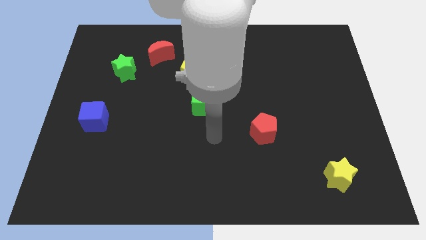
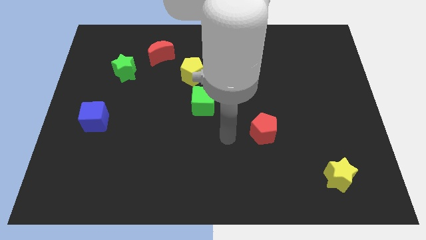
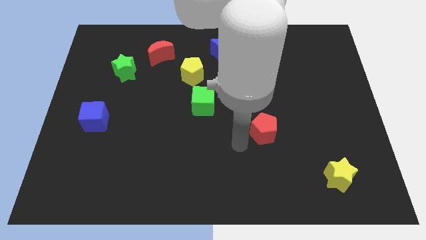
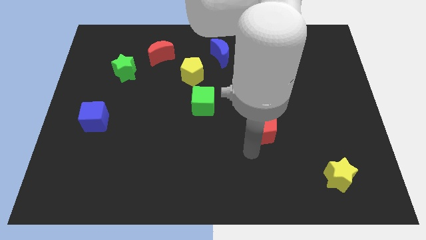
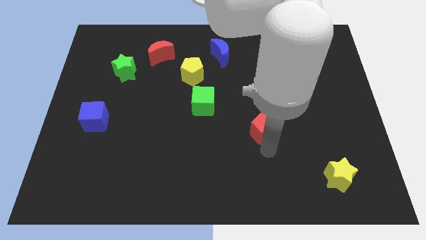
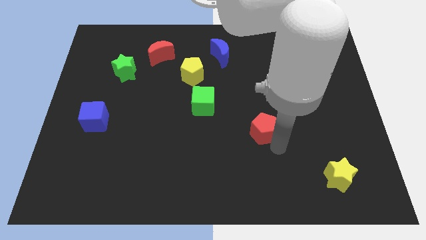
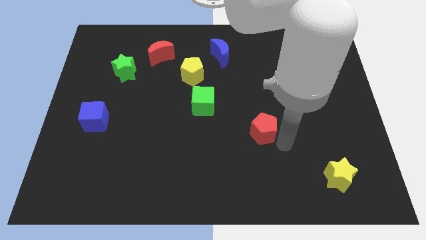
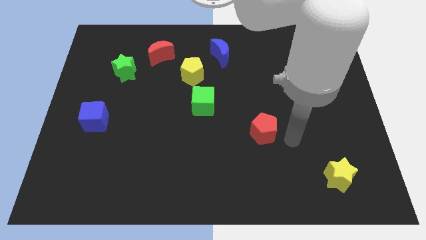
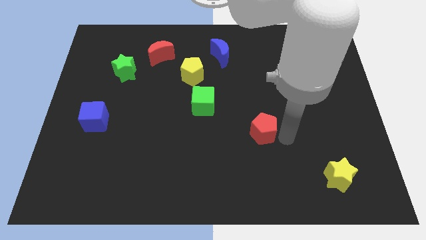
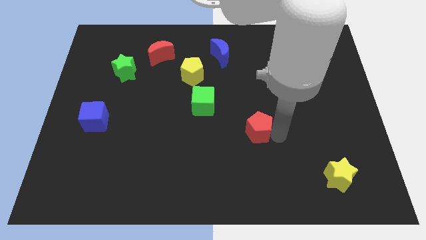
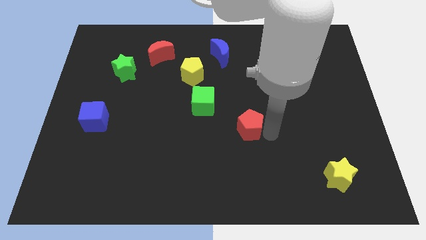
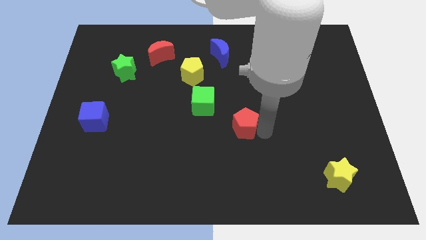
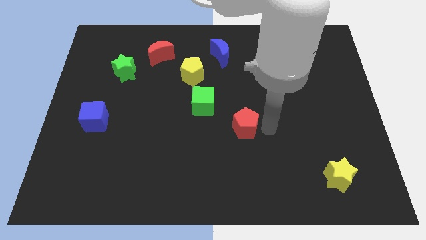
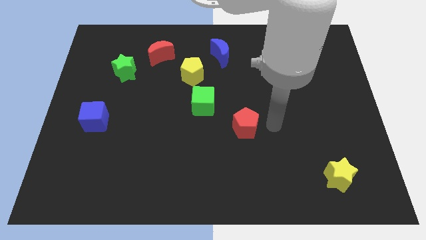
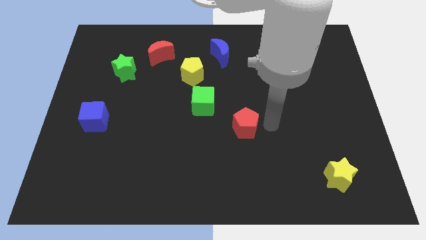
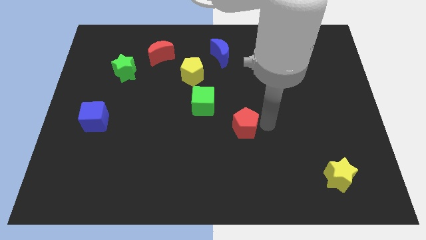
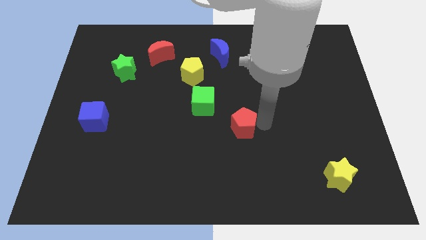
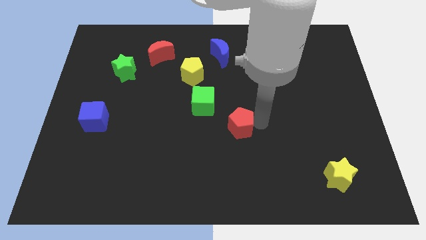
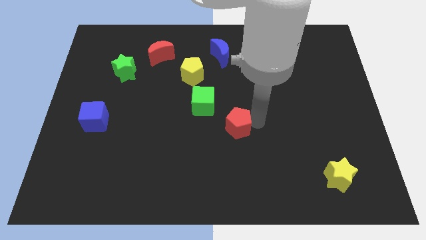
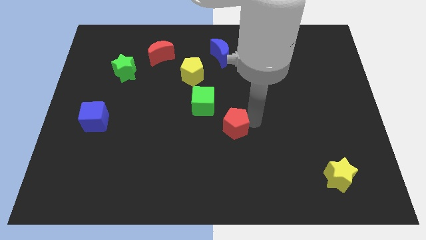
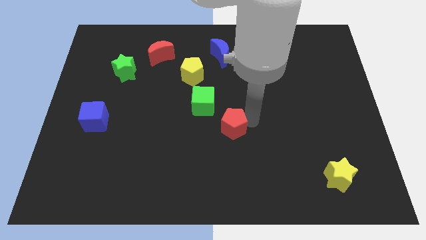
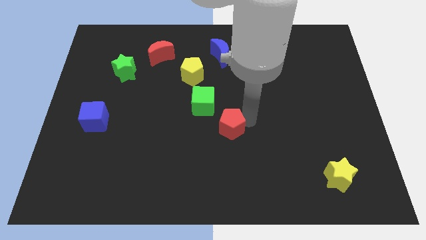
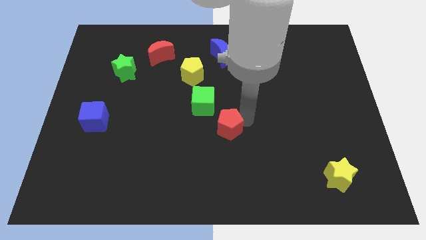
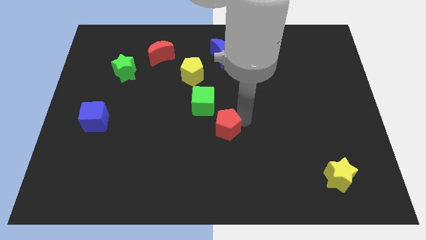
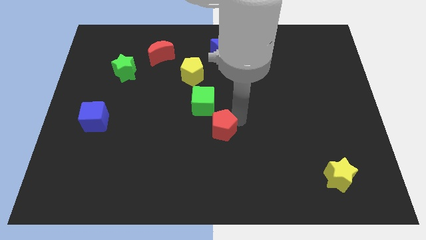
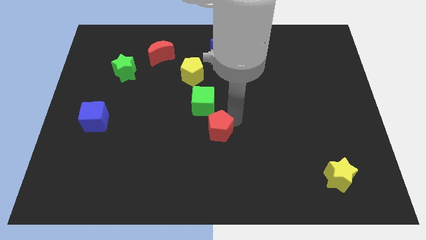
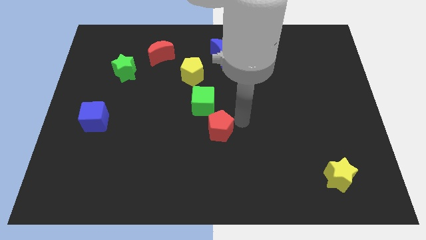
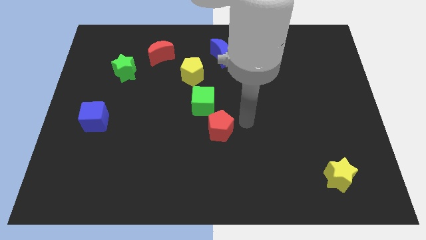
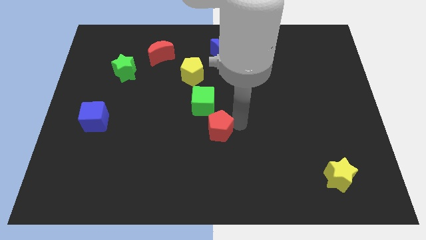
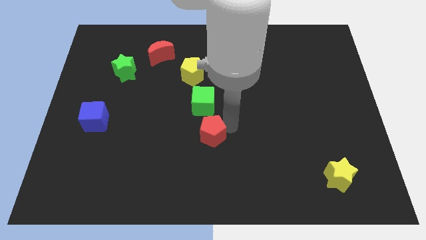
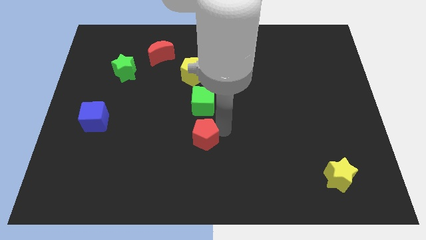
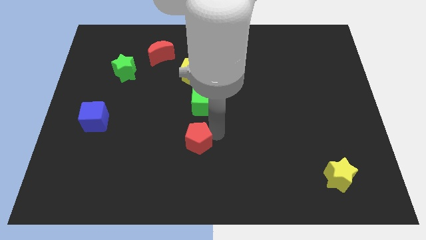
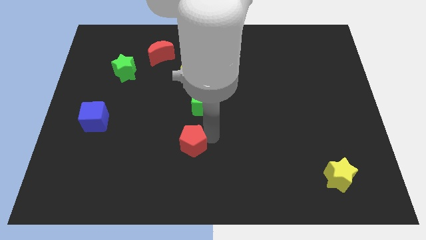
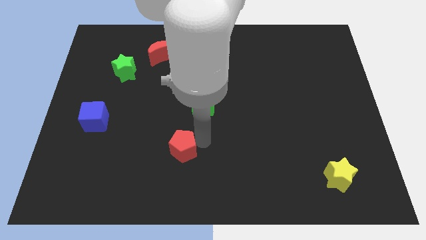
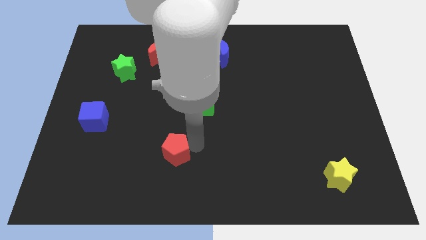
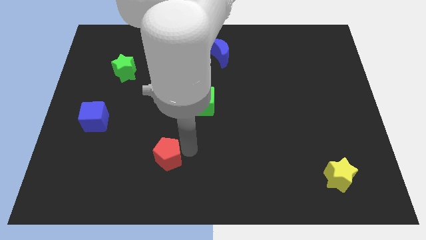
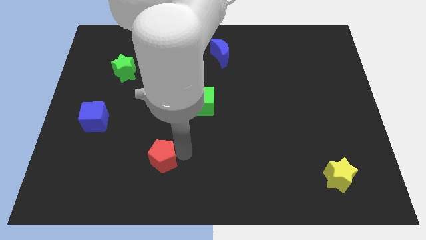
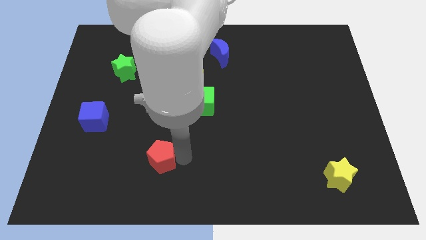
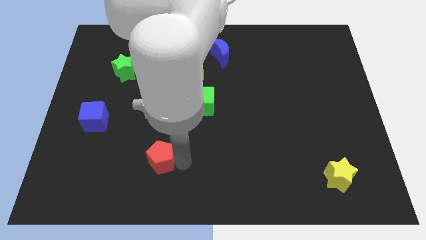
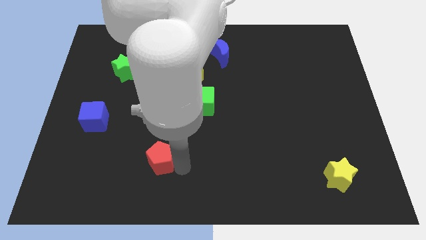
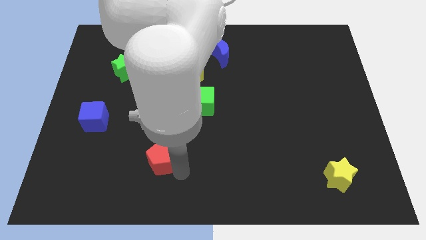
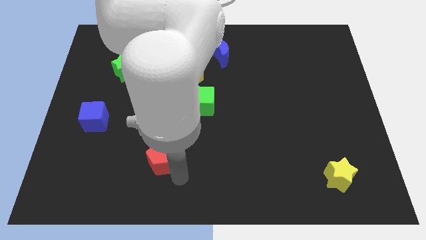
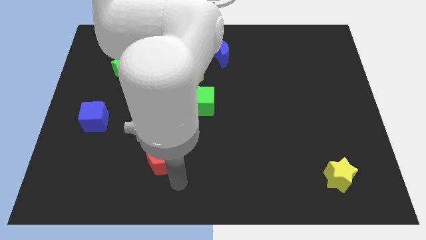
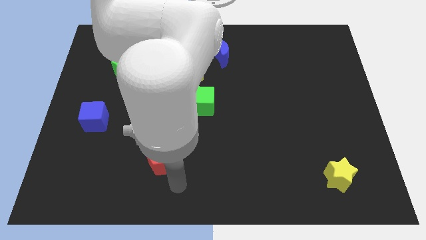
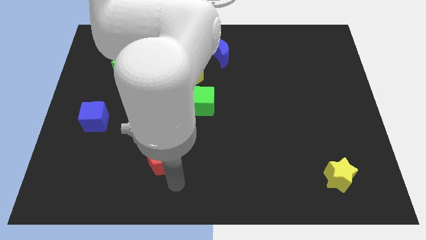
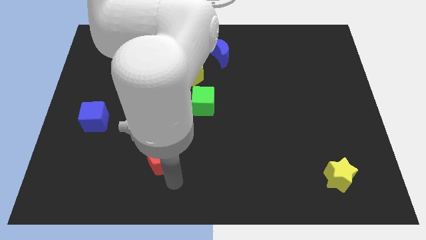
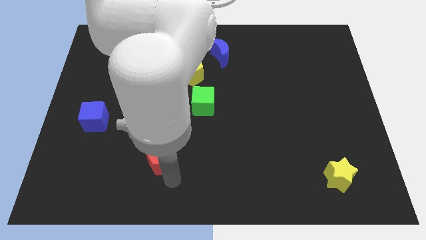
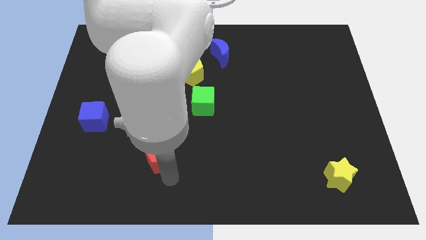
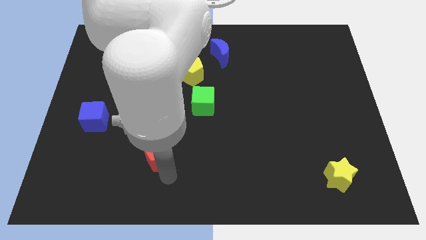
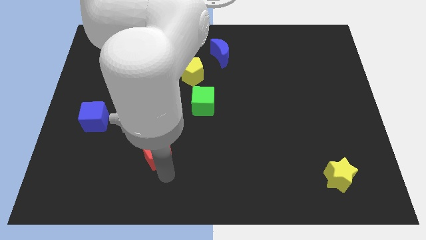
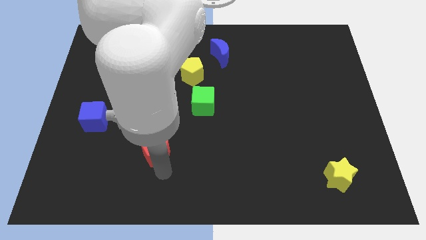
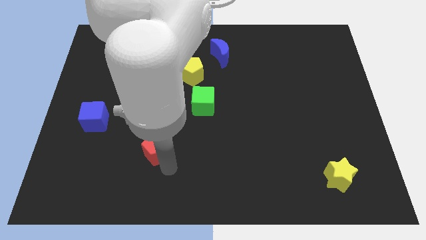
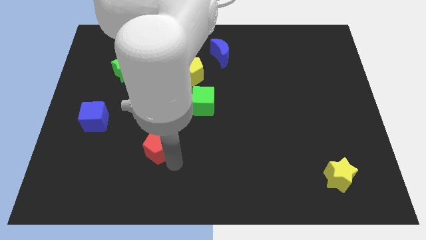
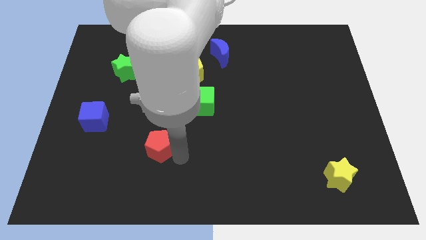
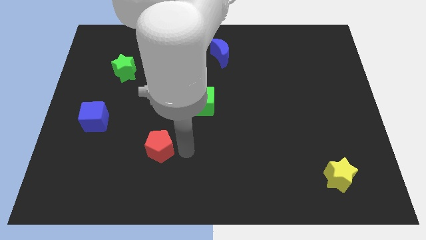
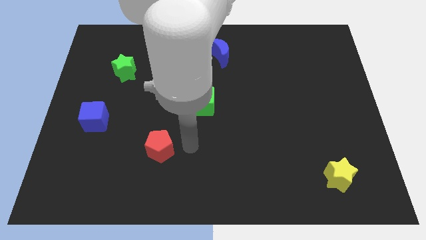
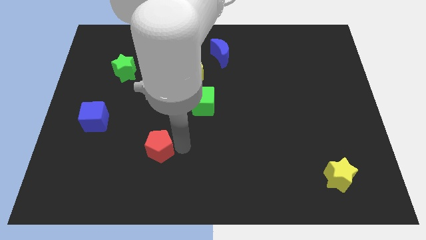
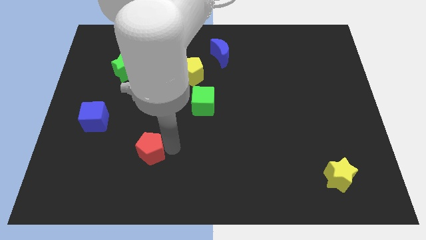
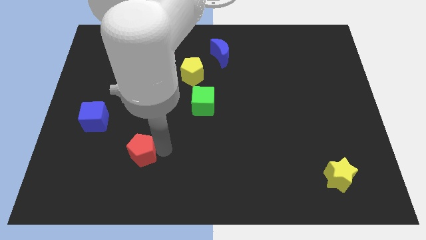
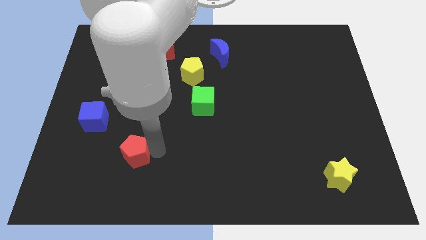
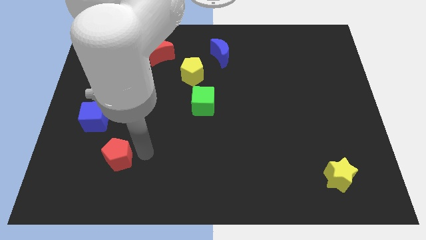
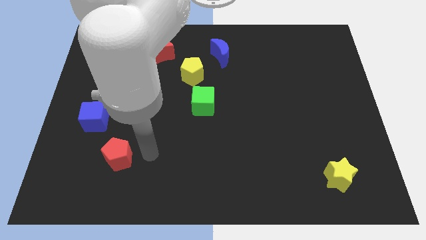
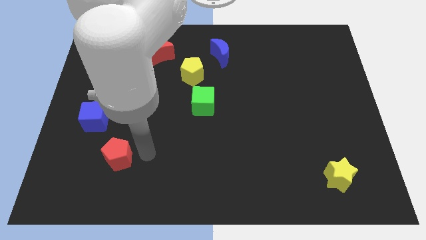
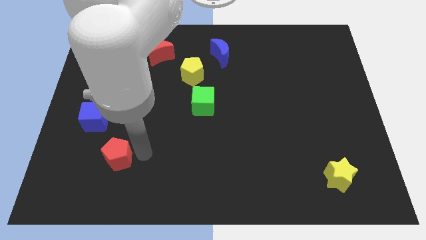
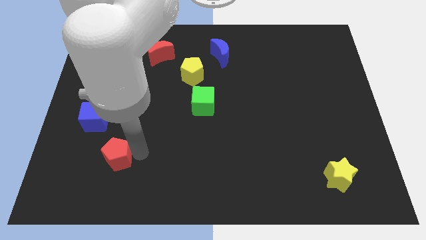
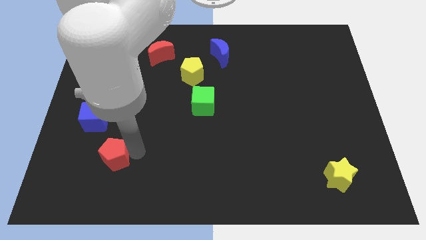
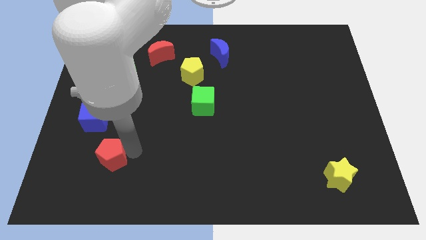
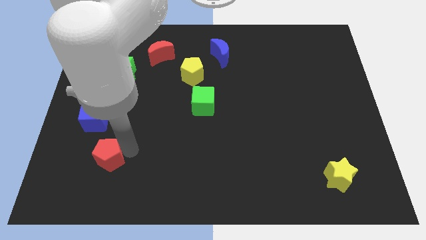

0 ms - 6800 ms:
slide the red pentagon below the blue cube
